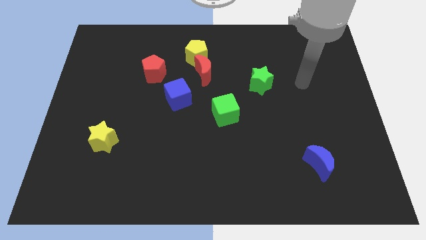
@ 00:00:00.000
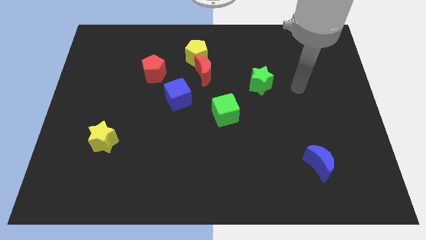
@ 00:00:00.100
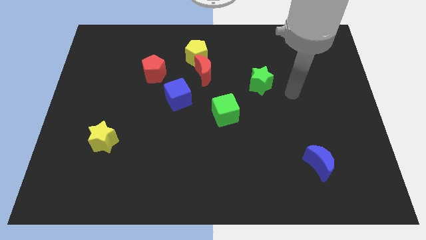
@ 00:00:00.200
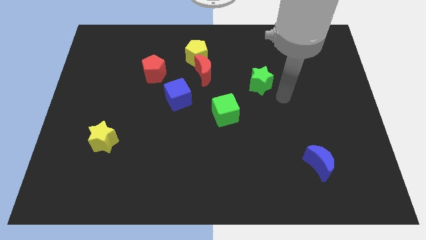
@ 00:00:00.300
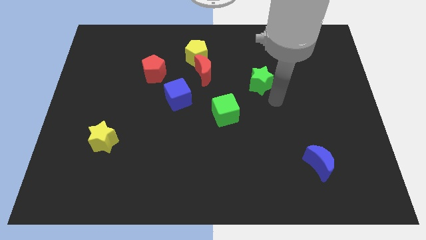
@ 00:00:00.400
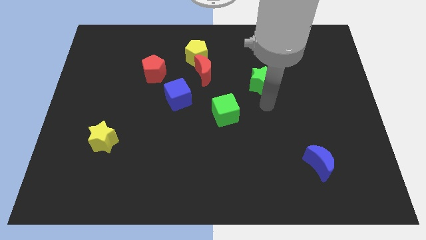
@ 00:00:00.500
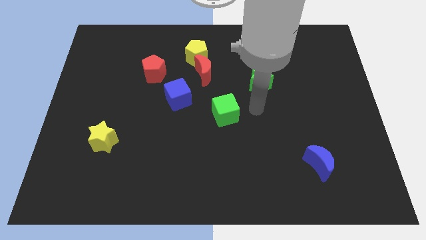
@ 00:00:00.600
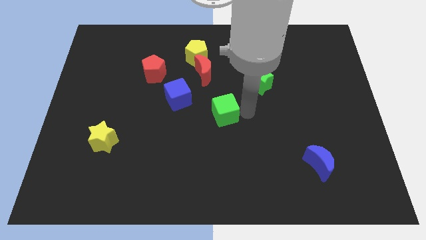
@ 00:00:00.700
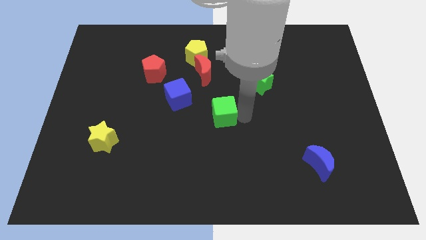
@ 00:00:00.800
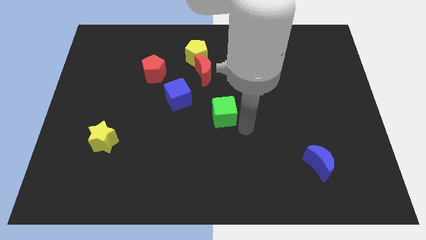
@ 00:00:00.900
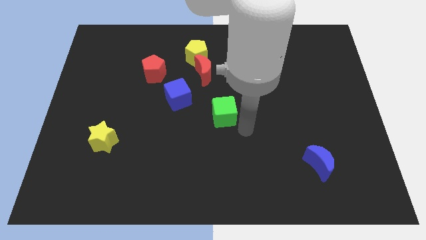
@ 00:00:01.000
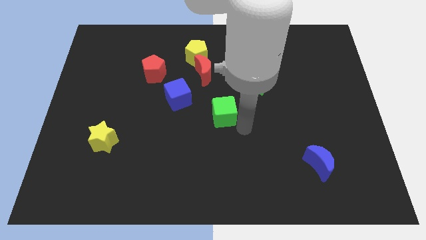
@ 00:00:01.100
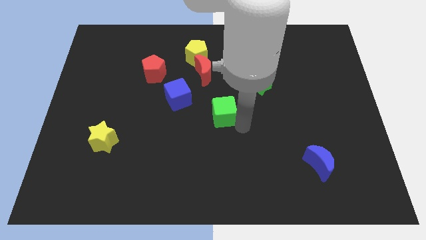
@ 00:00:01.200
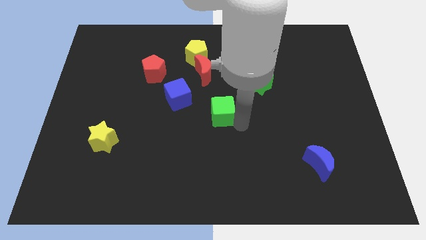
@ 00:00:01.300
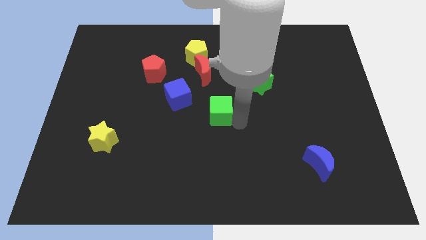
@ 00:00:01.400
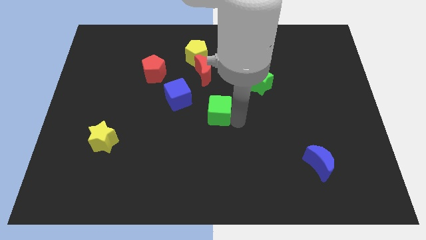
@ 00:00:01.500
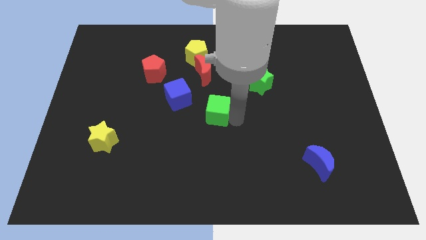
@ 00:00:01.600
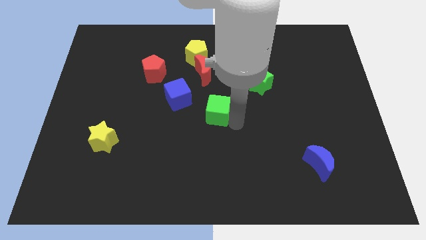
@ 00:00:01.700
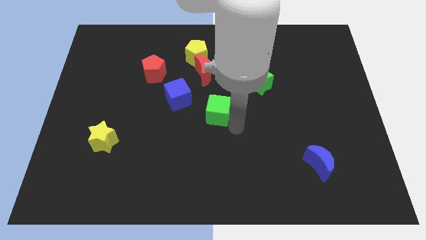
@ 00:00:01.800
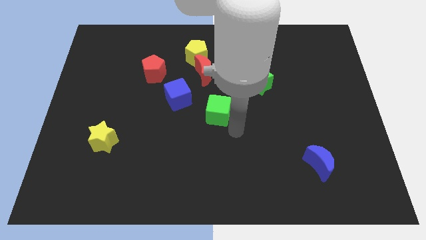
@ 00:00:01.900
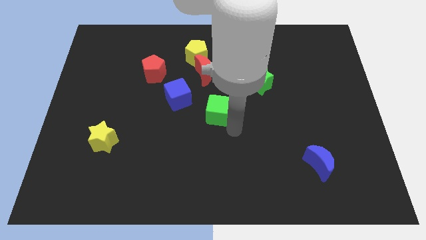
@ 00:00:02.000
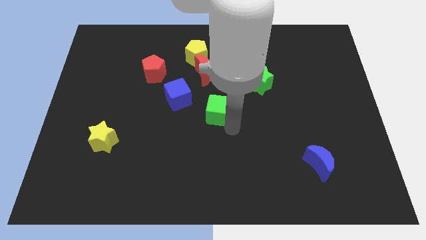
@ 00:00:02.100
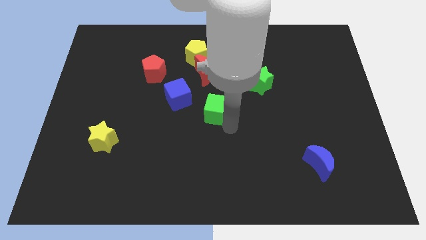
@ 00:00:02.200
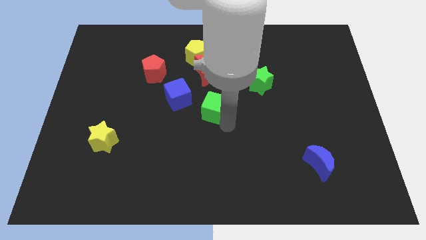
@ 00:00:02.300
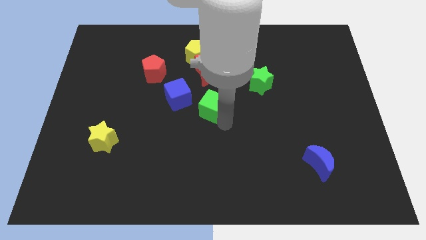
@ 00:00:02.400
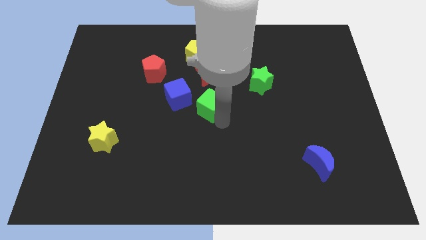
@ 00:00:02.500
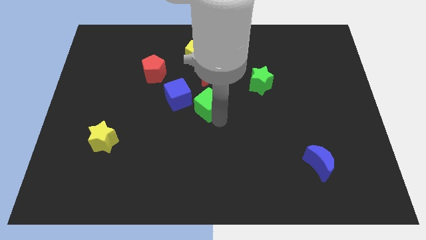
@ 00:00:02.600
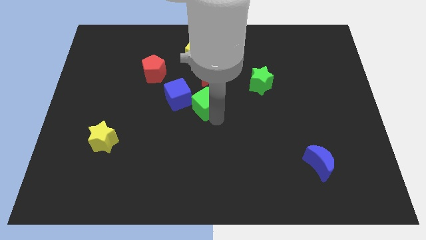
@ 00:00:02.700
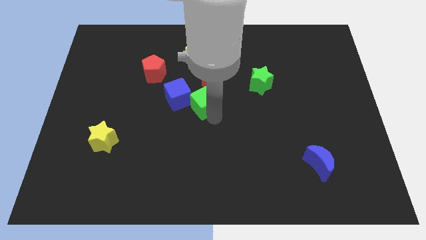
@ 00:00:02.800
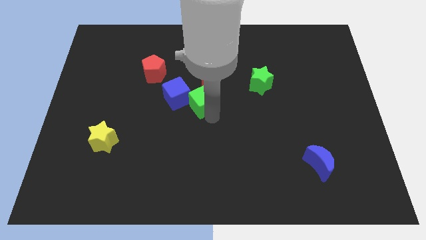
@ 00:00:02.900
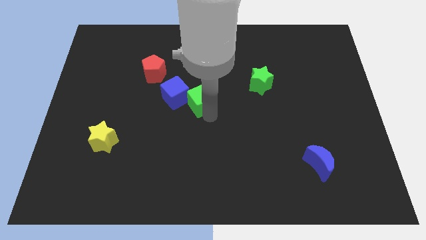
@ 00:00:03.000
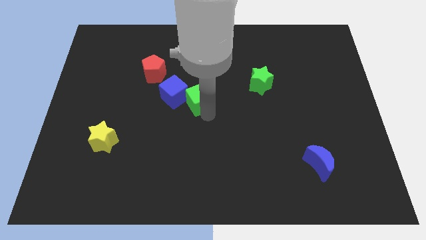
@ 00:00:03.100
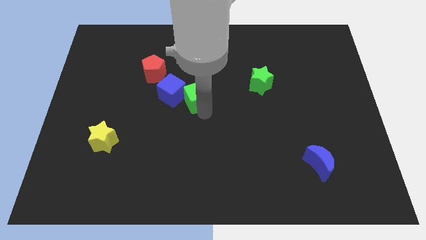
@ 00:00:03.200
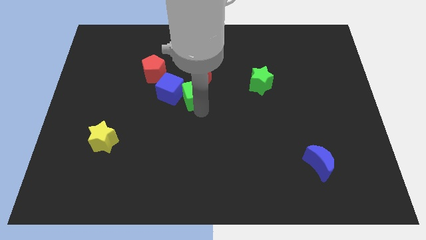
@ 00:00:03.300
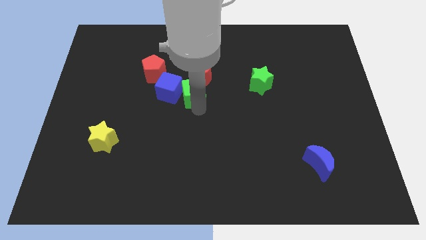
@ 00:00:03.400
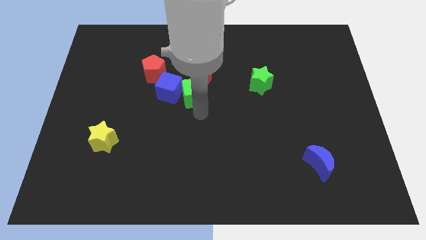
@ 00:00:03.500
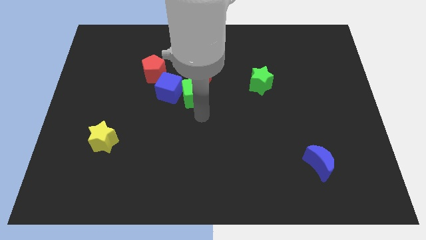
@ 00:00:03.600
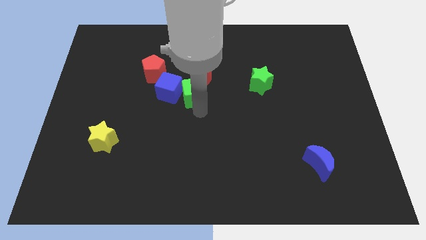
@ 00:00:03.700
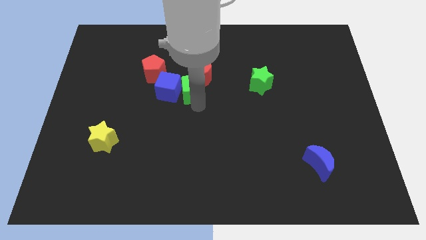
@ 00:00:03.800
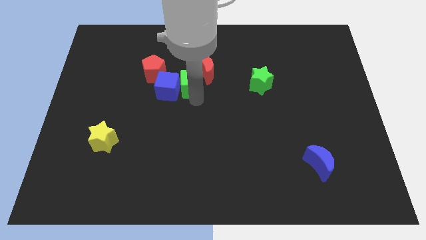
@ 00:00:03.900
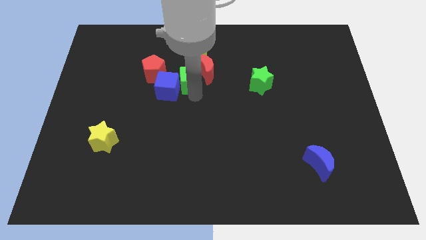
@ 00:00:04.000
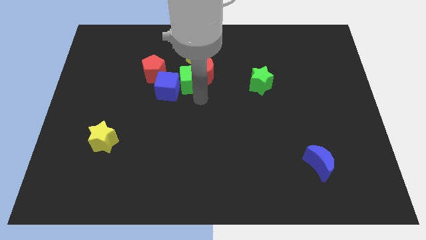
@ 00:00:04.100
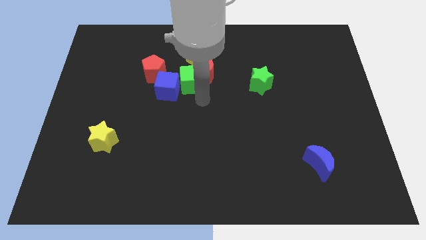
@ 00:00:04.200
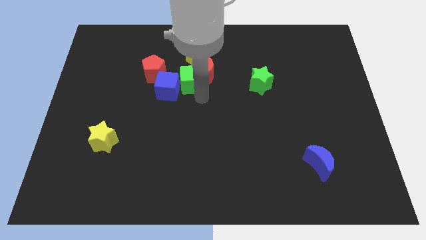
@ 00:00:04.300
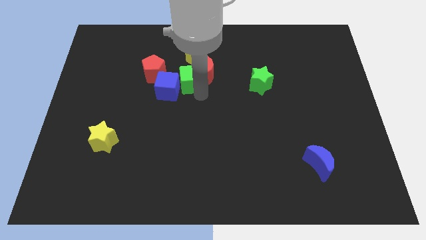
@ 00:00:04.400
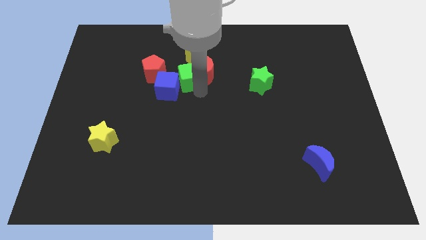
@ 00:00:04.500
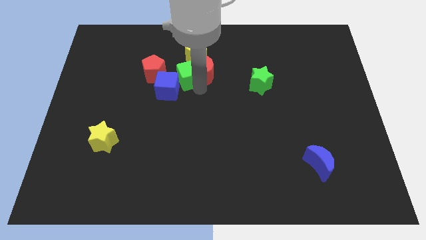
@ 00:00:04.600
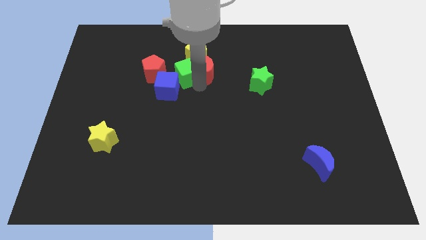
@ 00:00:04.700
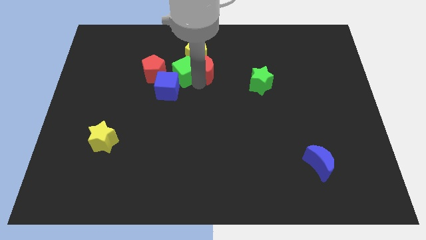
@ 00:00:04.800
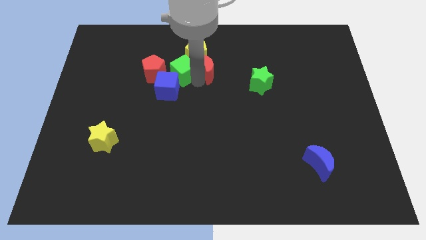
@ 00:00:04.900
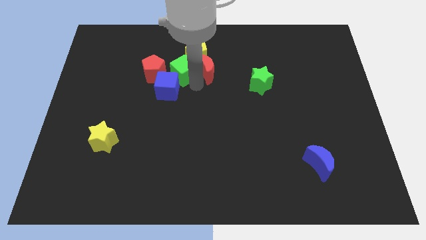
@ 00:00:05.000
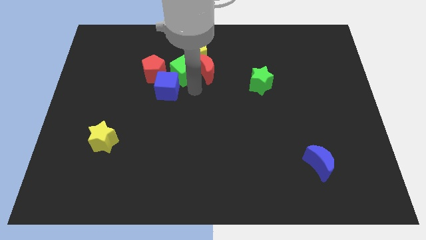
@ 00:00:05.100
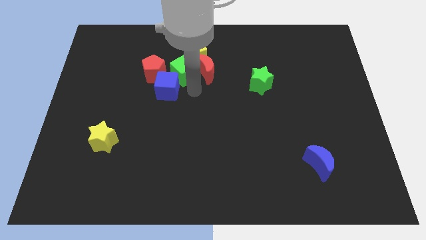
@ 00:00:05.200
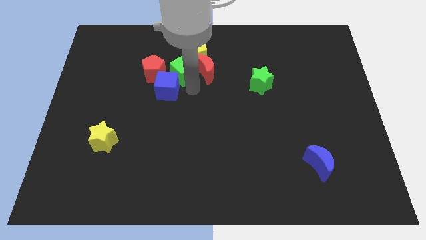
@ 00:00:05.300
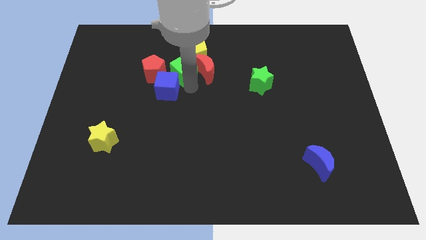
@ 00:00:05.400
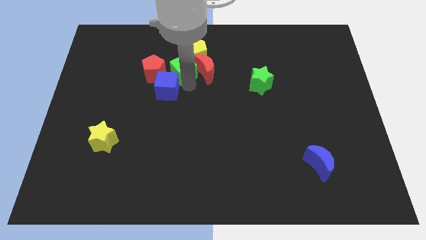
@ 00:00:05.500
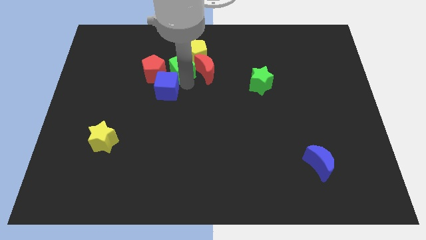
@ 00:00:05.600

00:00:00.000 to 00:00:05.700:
push the green cube diagonally up and to the right of the red pentagon

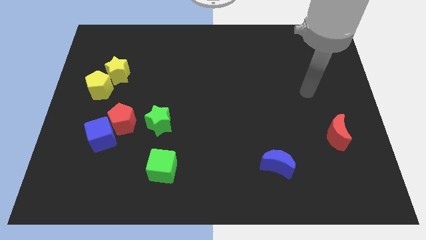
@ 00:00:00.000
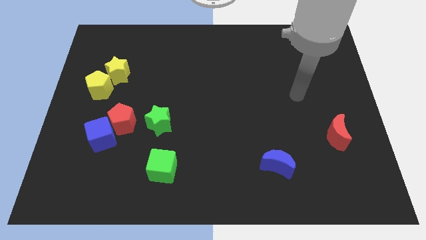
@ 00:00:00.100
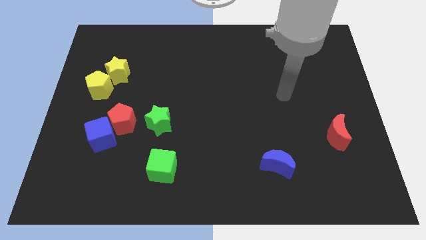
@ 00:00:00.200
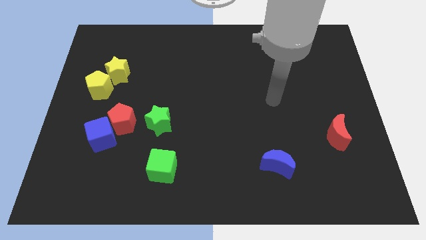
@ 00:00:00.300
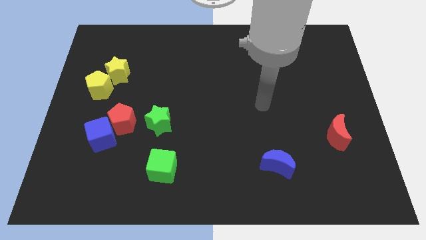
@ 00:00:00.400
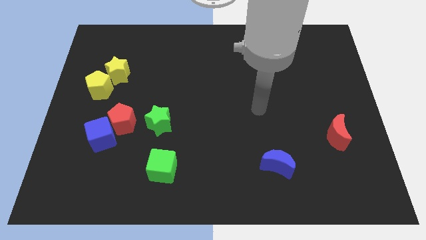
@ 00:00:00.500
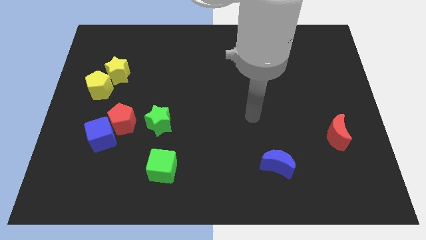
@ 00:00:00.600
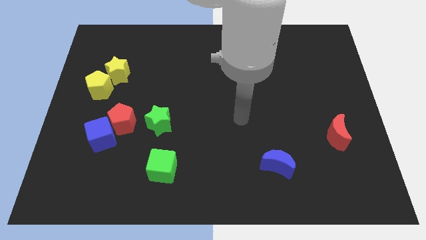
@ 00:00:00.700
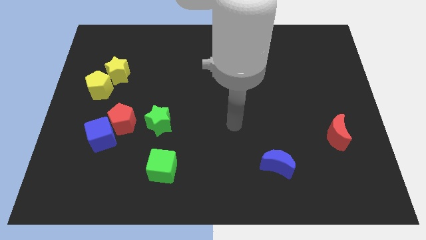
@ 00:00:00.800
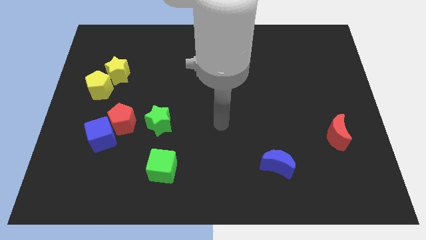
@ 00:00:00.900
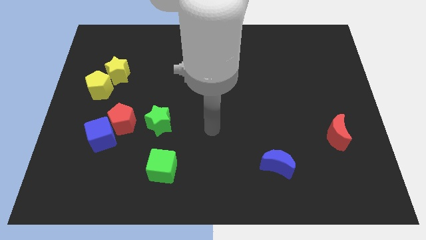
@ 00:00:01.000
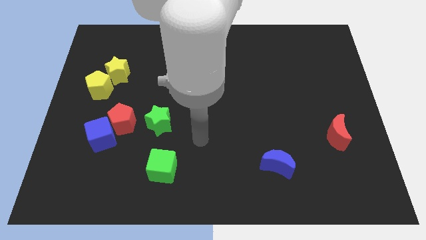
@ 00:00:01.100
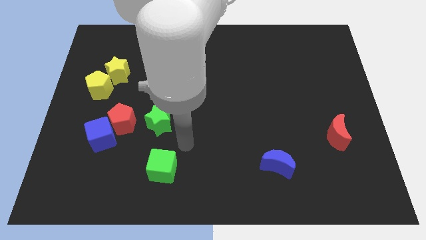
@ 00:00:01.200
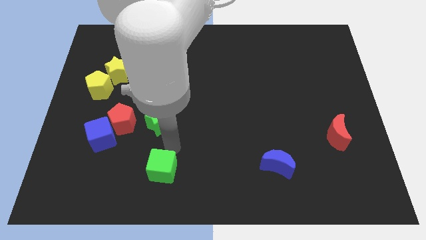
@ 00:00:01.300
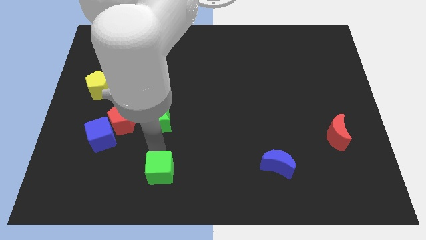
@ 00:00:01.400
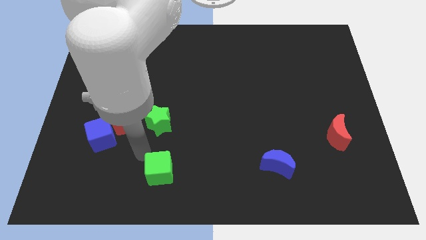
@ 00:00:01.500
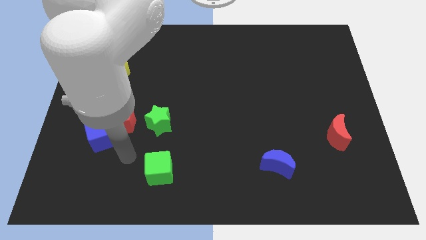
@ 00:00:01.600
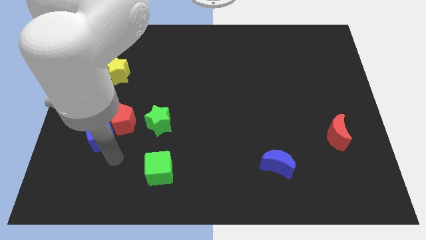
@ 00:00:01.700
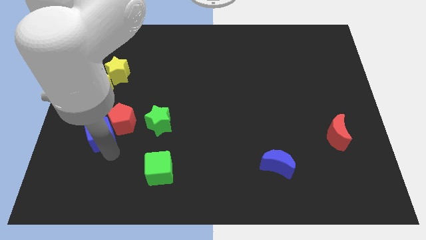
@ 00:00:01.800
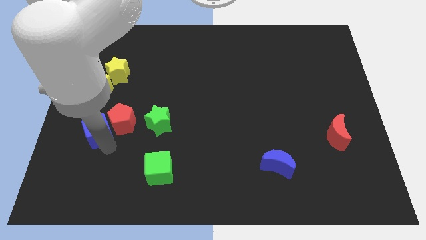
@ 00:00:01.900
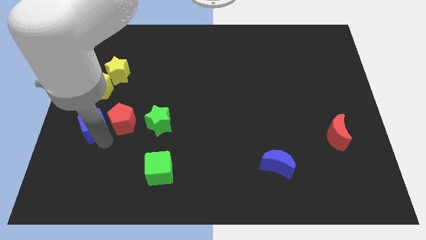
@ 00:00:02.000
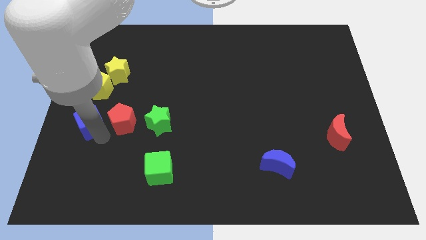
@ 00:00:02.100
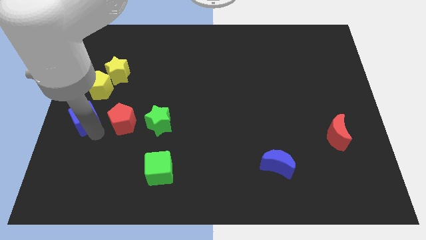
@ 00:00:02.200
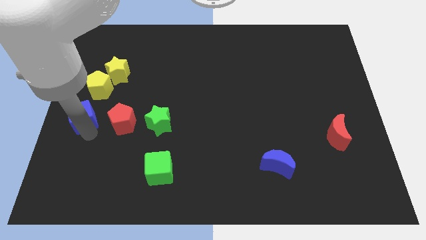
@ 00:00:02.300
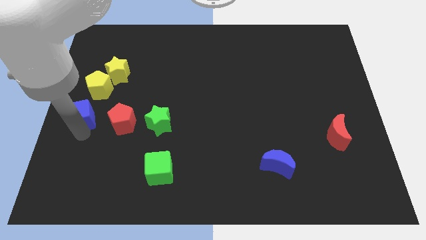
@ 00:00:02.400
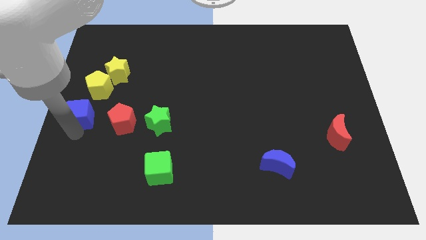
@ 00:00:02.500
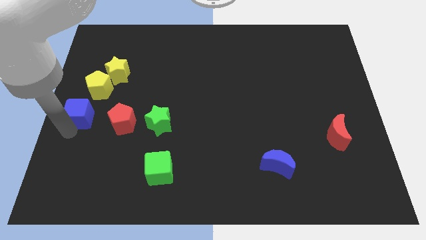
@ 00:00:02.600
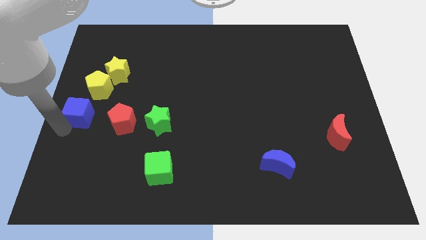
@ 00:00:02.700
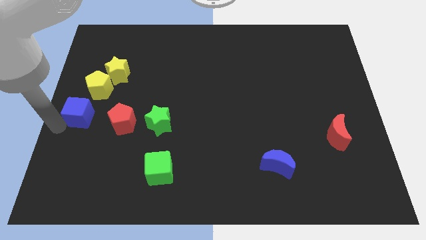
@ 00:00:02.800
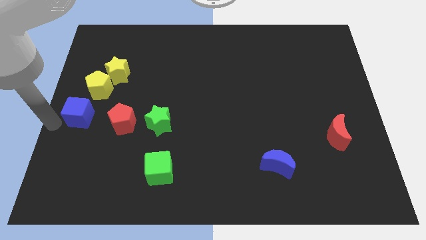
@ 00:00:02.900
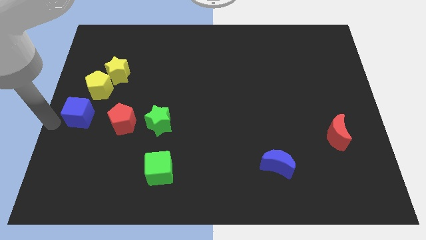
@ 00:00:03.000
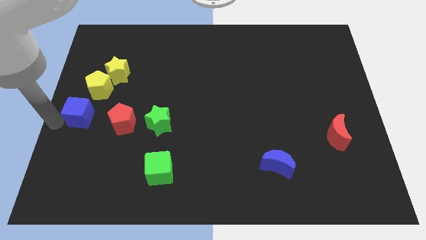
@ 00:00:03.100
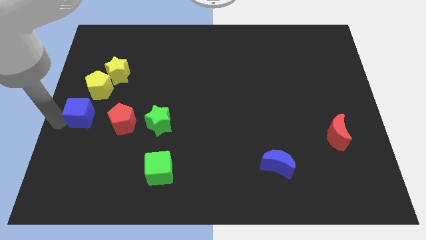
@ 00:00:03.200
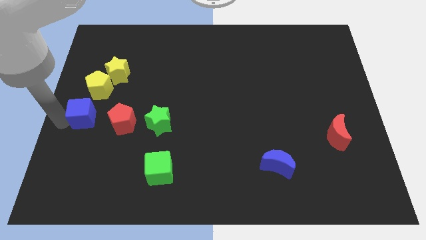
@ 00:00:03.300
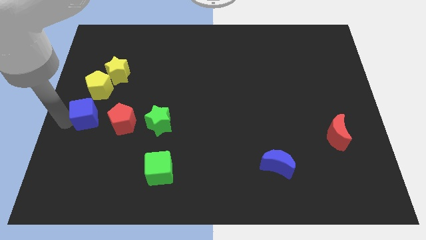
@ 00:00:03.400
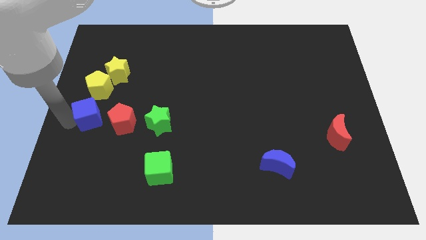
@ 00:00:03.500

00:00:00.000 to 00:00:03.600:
push the blue cube below the yellow star
